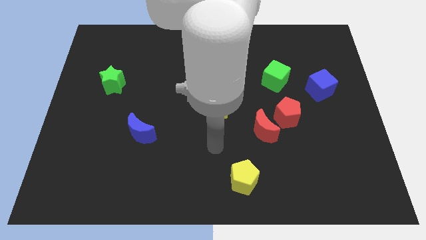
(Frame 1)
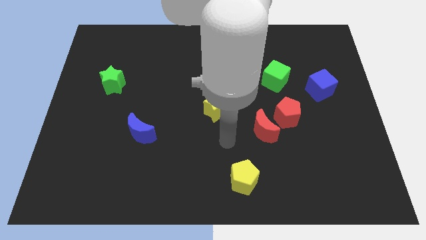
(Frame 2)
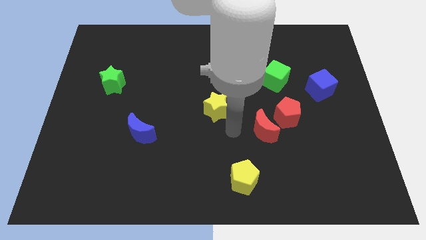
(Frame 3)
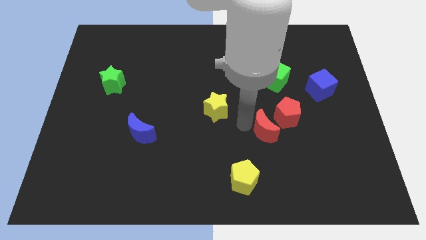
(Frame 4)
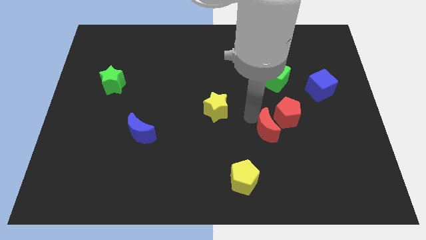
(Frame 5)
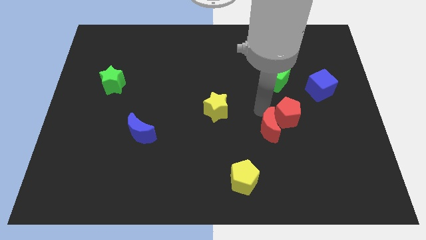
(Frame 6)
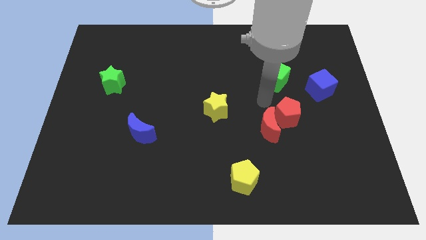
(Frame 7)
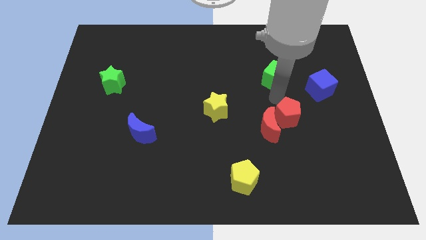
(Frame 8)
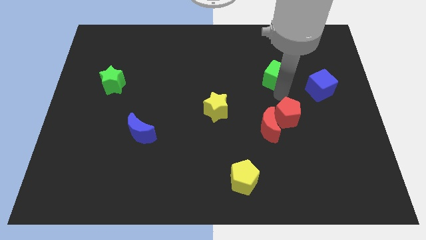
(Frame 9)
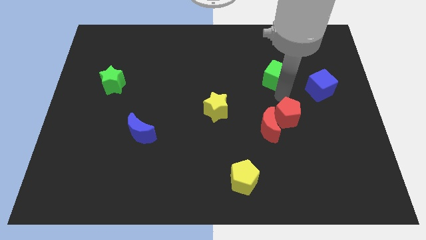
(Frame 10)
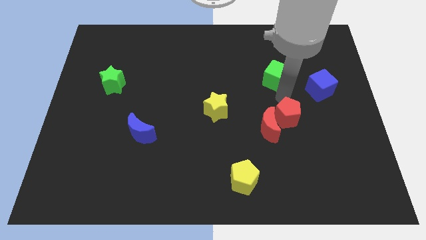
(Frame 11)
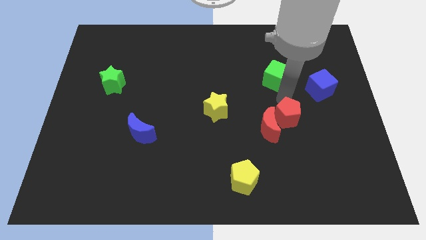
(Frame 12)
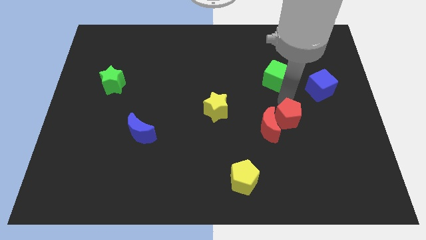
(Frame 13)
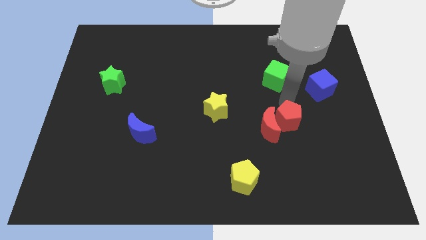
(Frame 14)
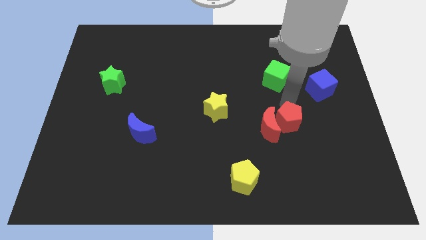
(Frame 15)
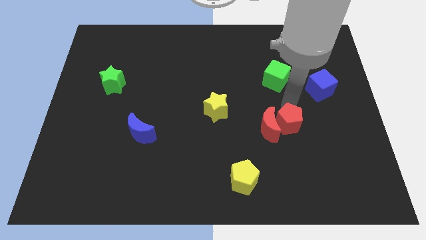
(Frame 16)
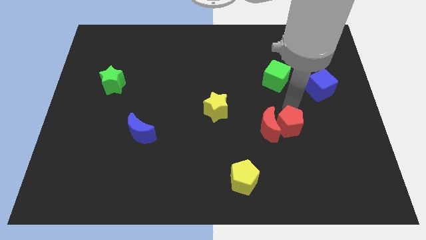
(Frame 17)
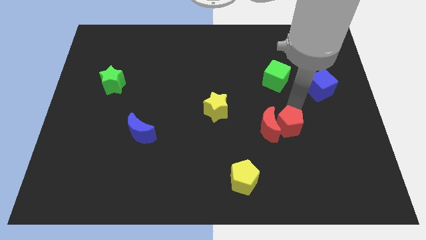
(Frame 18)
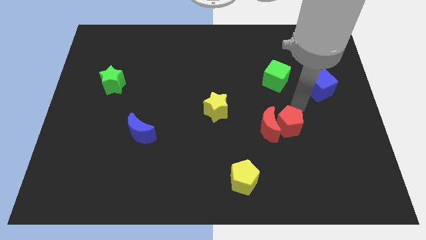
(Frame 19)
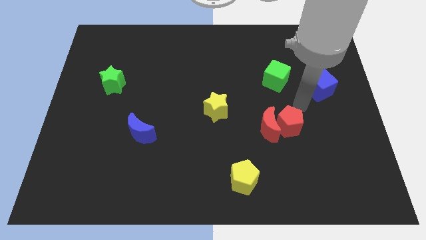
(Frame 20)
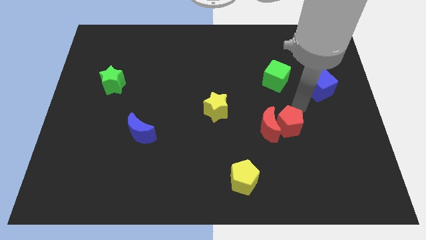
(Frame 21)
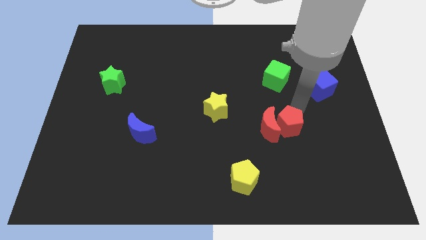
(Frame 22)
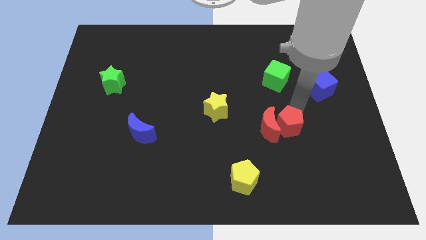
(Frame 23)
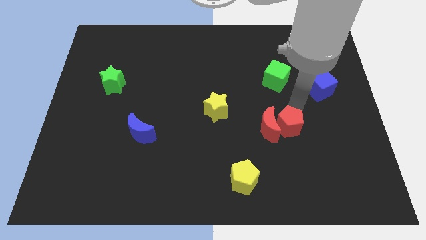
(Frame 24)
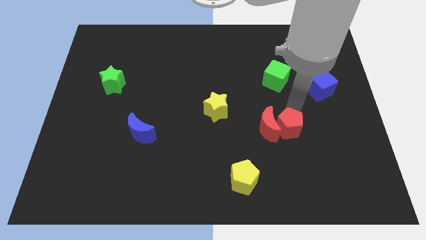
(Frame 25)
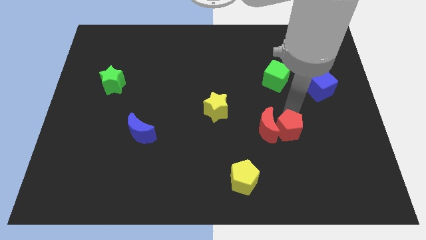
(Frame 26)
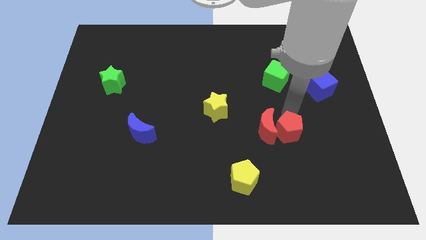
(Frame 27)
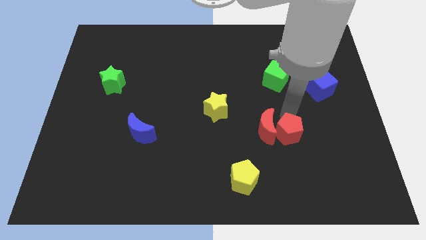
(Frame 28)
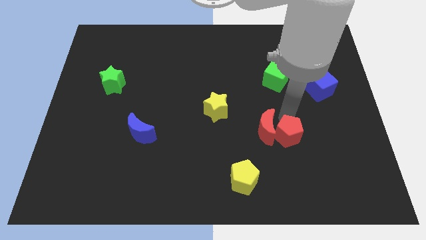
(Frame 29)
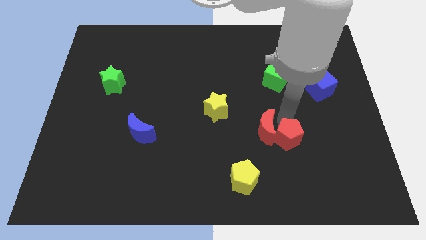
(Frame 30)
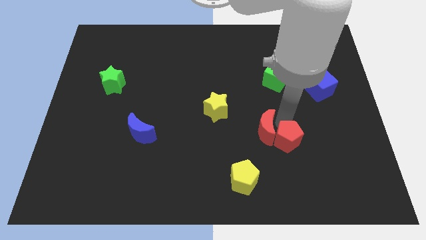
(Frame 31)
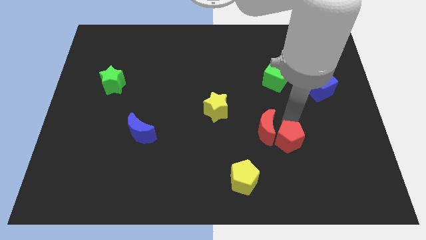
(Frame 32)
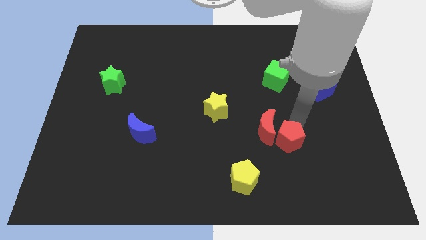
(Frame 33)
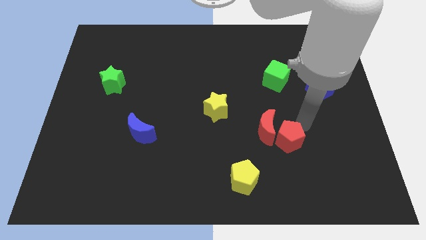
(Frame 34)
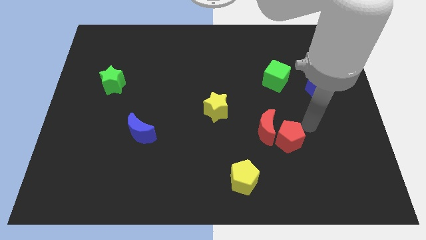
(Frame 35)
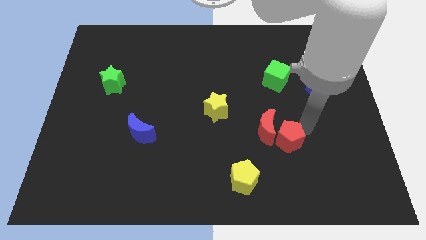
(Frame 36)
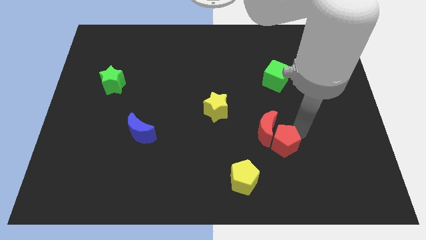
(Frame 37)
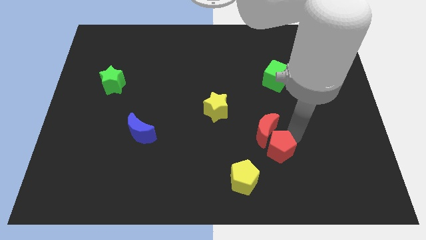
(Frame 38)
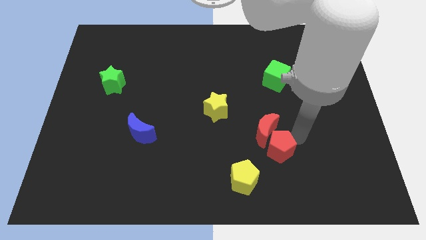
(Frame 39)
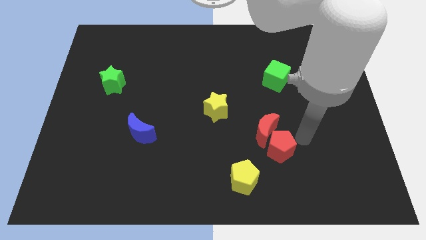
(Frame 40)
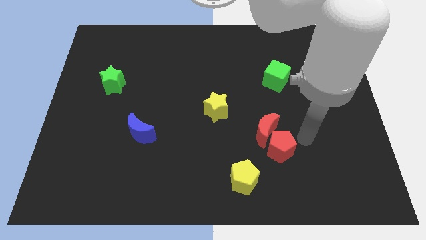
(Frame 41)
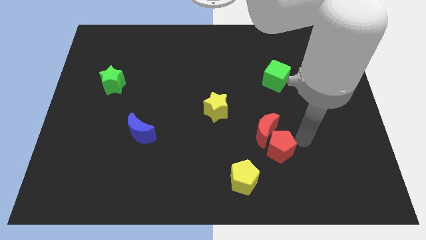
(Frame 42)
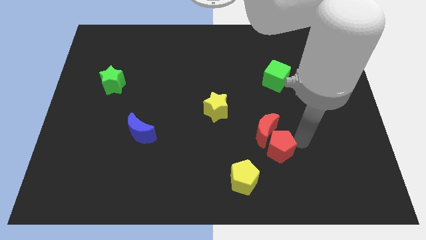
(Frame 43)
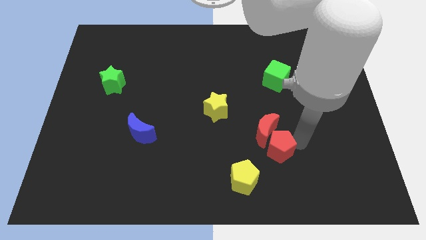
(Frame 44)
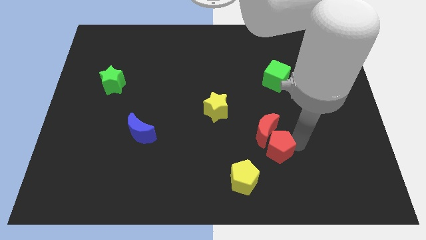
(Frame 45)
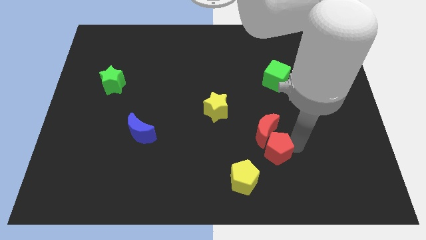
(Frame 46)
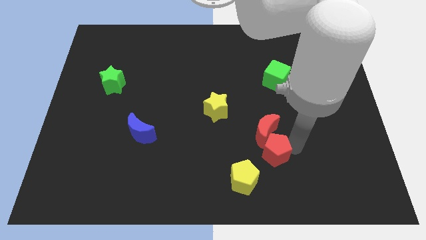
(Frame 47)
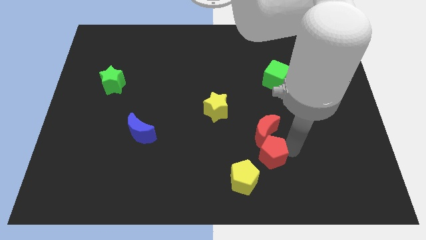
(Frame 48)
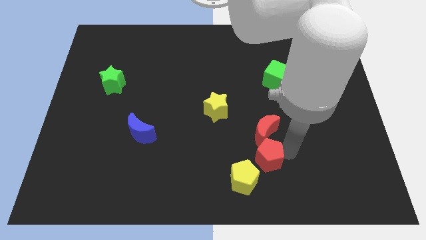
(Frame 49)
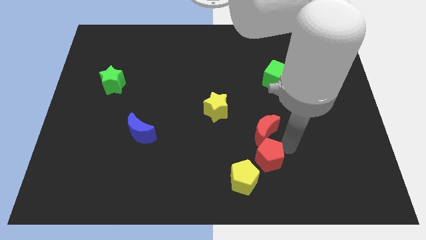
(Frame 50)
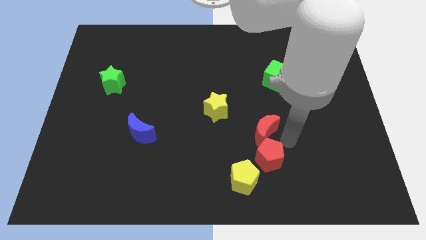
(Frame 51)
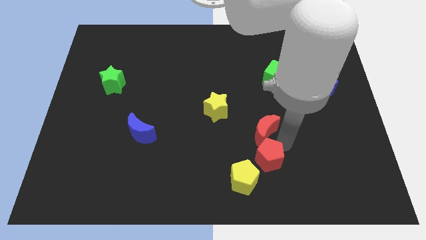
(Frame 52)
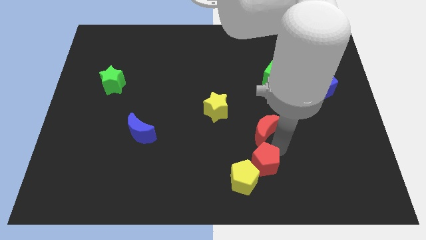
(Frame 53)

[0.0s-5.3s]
move the red pentagon towards the yellow pentagon

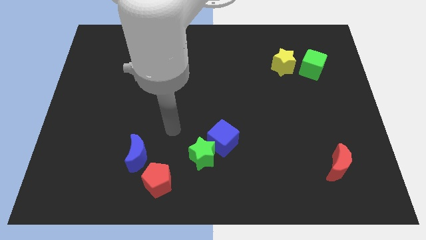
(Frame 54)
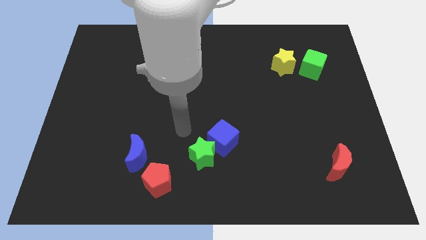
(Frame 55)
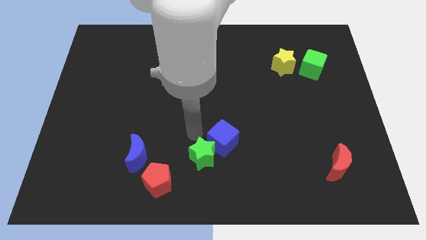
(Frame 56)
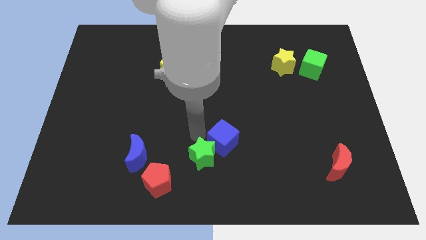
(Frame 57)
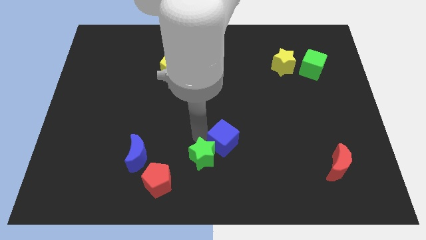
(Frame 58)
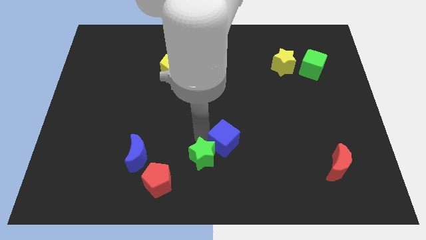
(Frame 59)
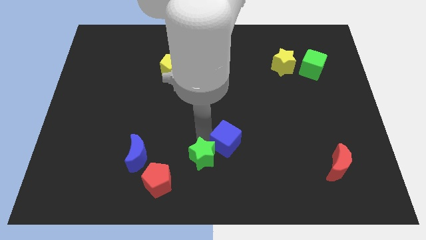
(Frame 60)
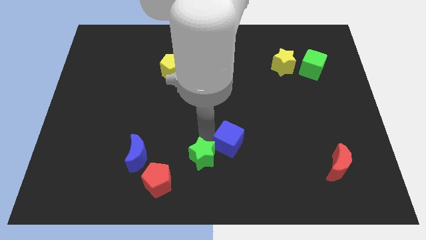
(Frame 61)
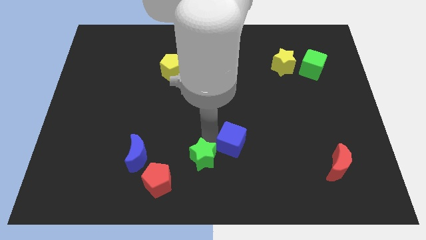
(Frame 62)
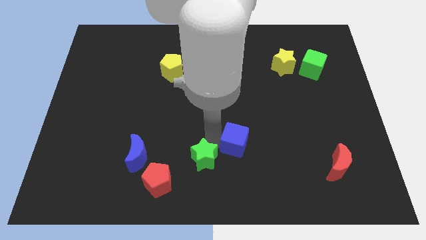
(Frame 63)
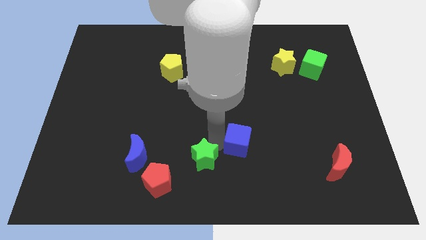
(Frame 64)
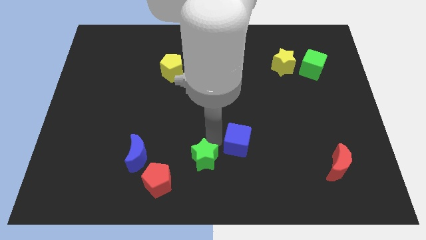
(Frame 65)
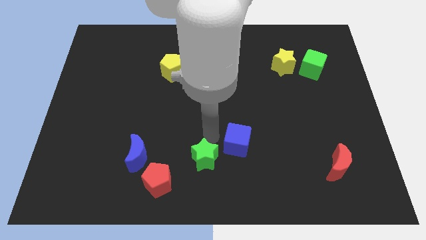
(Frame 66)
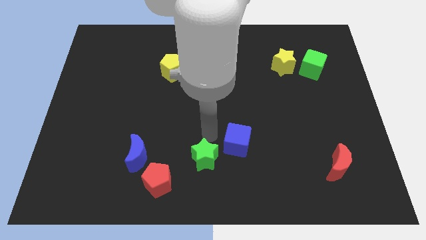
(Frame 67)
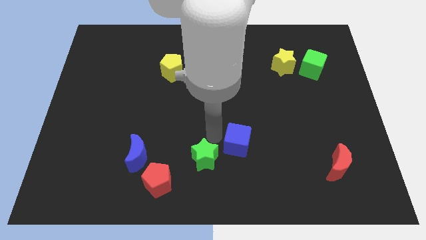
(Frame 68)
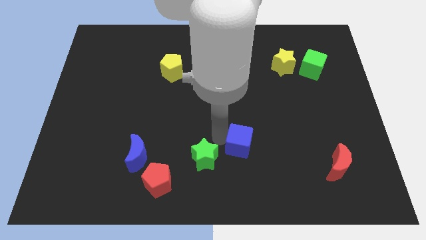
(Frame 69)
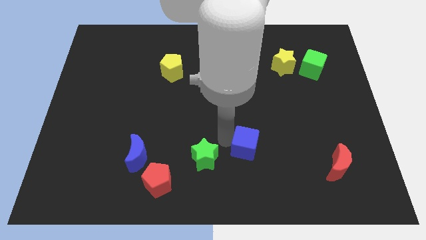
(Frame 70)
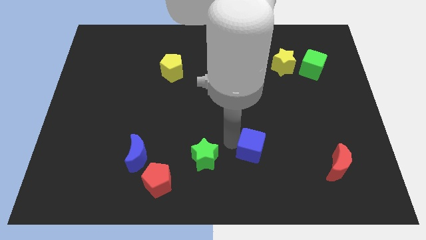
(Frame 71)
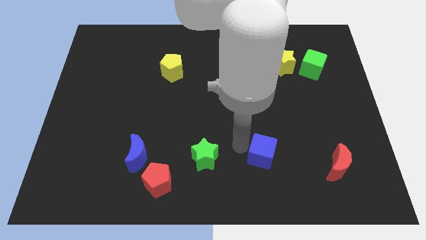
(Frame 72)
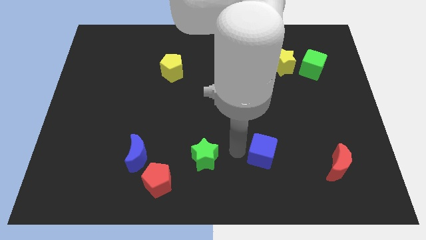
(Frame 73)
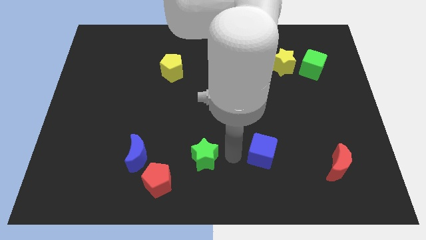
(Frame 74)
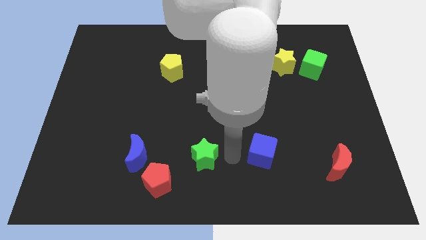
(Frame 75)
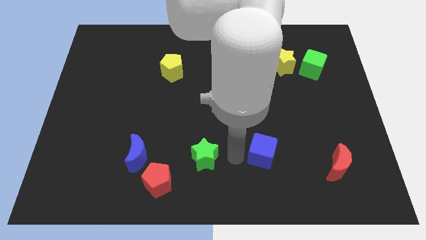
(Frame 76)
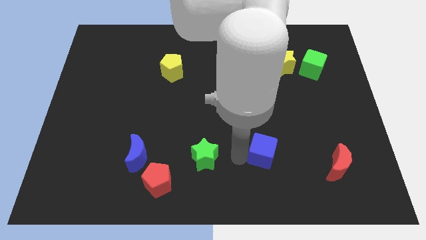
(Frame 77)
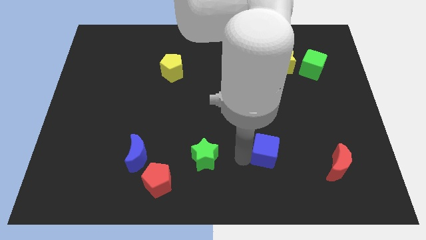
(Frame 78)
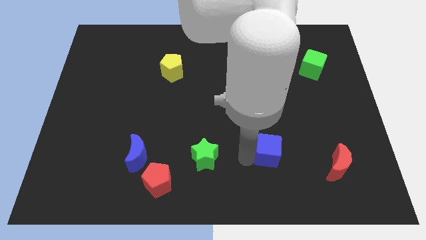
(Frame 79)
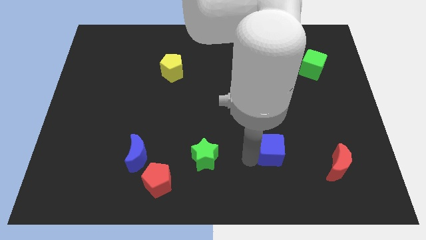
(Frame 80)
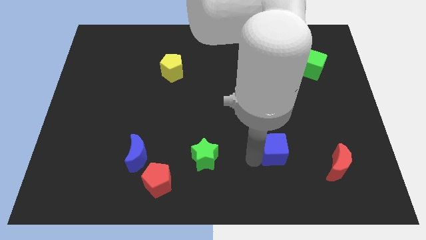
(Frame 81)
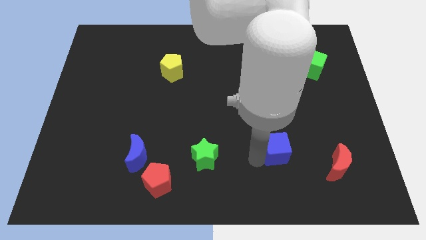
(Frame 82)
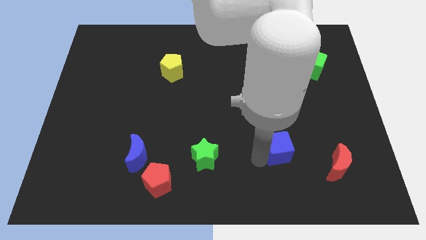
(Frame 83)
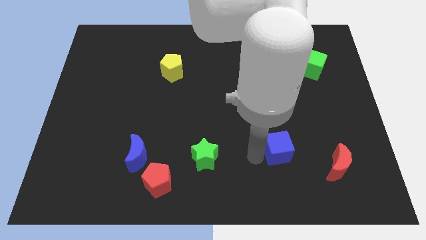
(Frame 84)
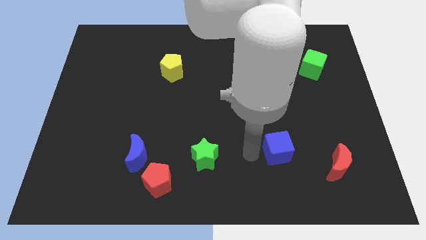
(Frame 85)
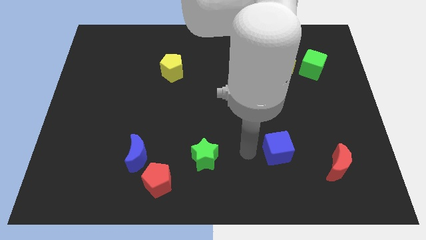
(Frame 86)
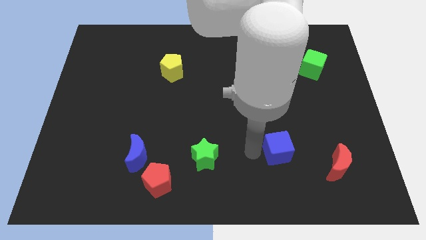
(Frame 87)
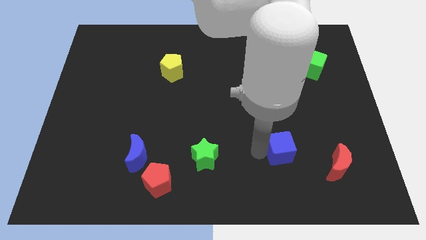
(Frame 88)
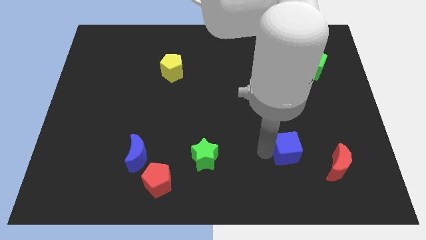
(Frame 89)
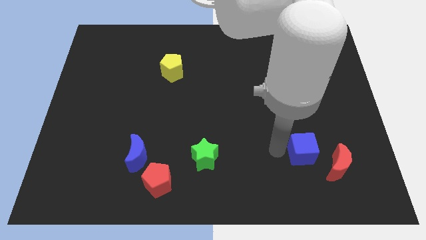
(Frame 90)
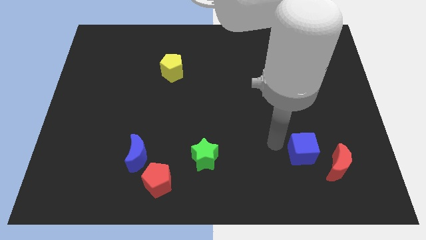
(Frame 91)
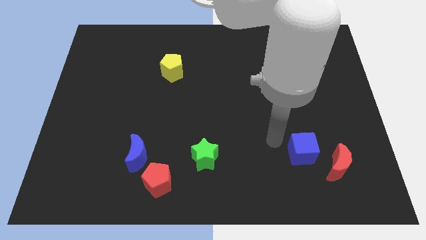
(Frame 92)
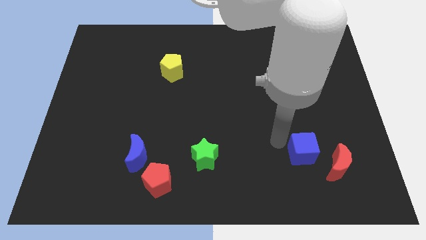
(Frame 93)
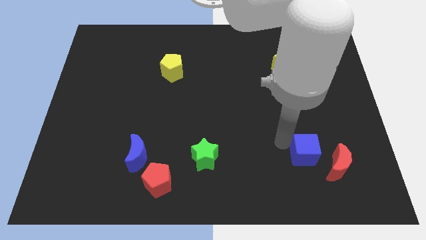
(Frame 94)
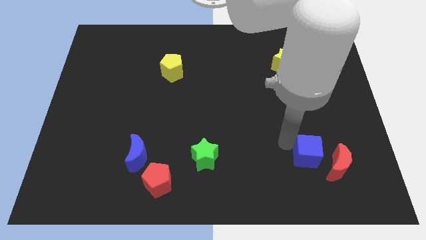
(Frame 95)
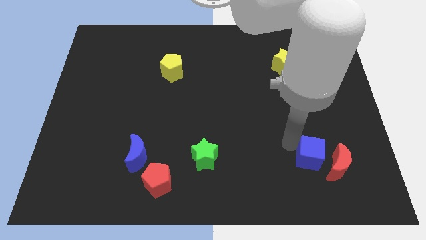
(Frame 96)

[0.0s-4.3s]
slide the blue cube to the red moon
